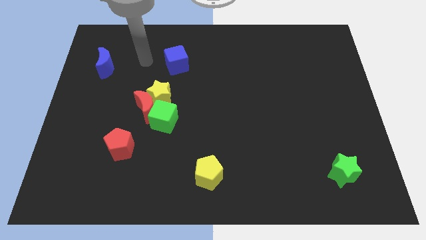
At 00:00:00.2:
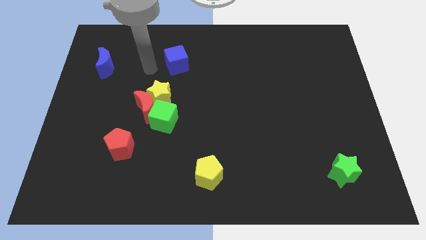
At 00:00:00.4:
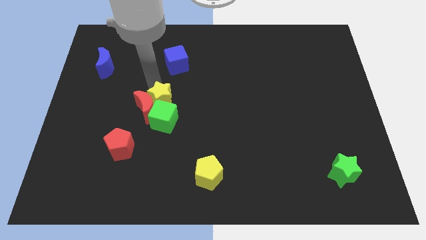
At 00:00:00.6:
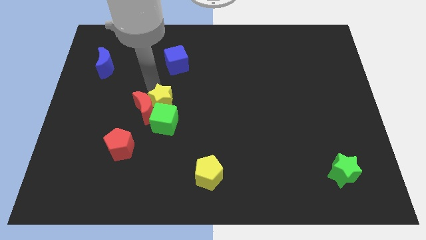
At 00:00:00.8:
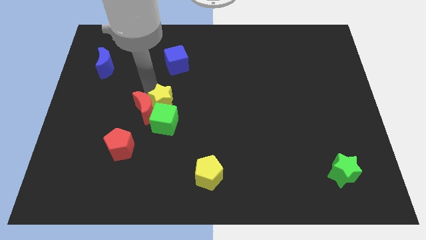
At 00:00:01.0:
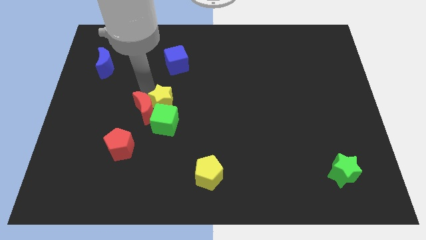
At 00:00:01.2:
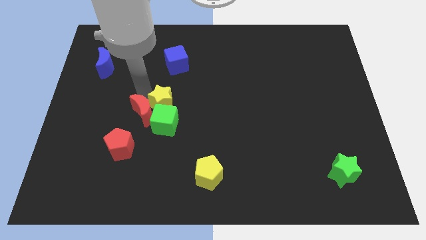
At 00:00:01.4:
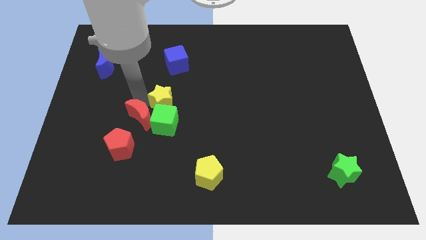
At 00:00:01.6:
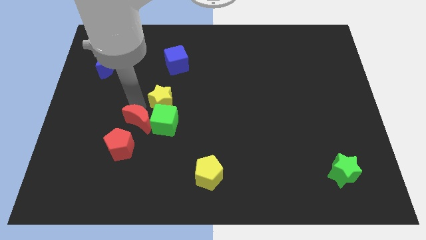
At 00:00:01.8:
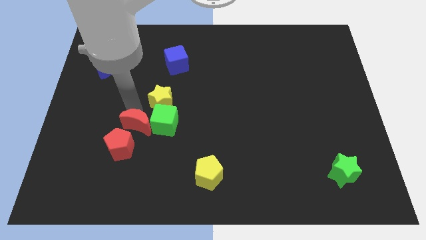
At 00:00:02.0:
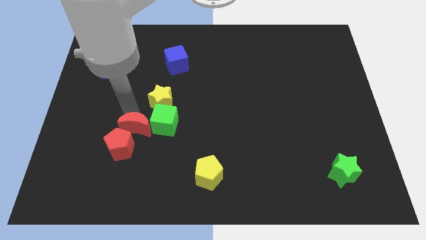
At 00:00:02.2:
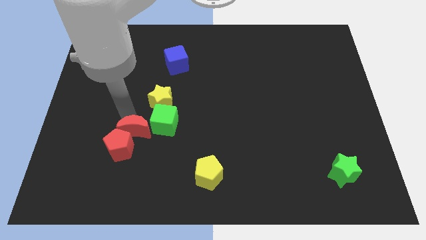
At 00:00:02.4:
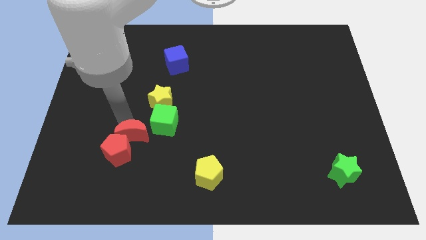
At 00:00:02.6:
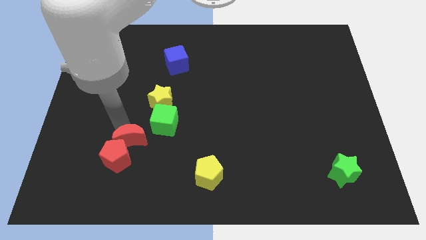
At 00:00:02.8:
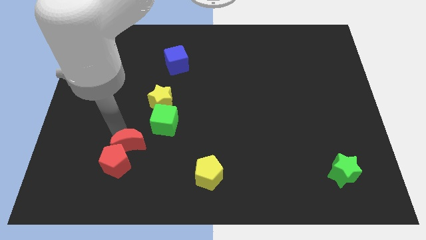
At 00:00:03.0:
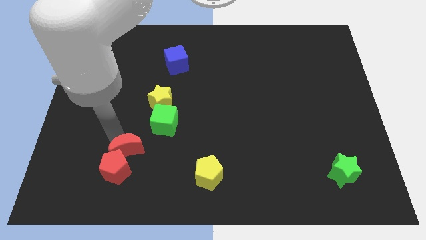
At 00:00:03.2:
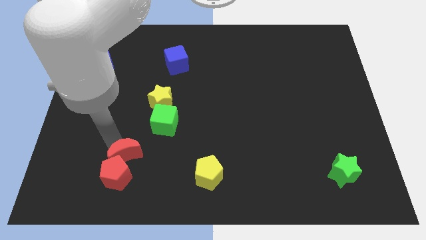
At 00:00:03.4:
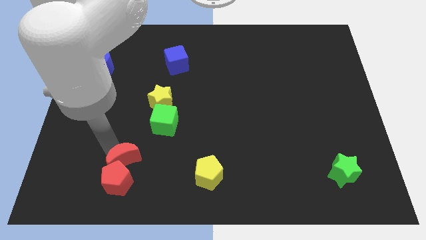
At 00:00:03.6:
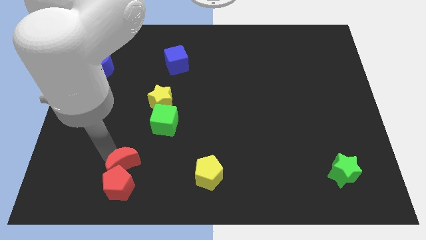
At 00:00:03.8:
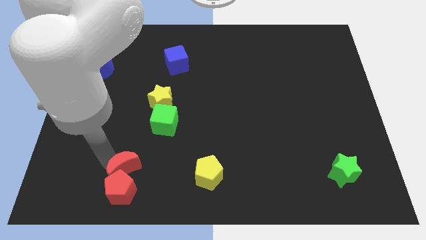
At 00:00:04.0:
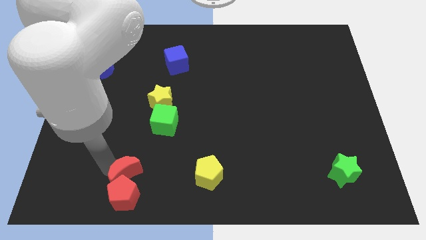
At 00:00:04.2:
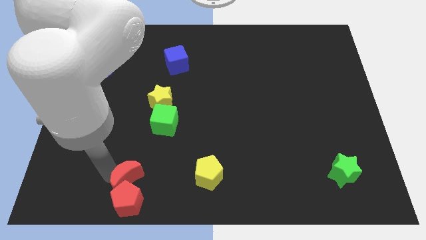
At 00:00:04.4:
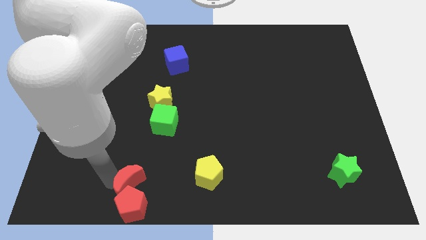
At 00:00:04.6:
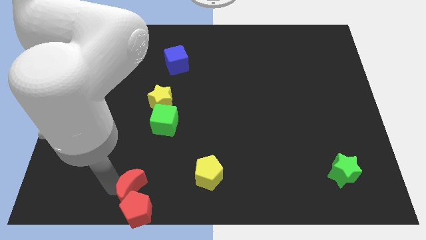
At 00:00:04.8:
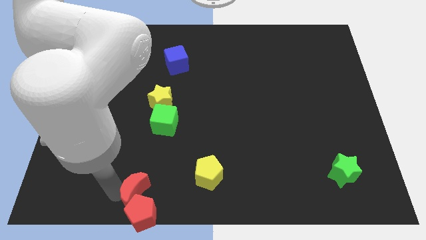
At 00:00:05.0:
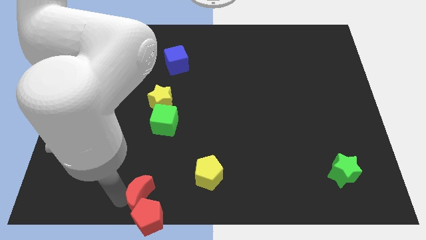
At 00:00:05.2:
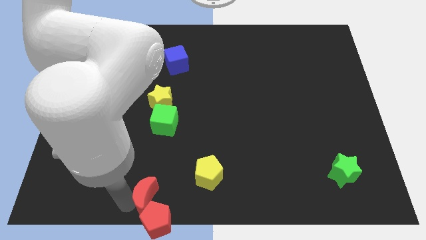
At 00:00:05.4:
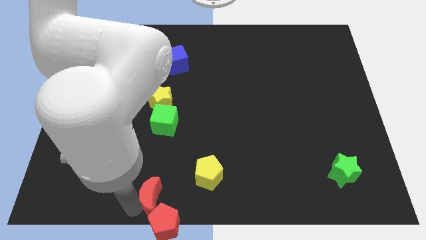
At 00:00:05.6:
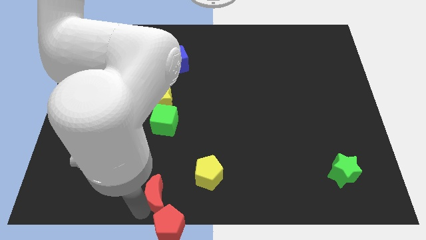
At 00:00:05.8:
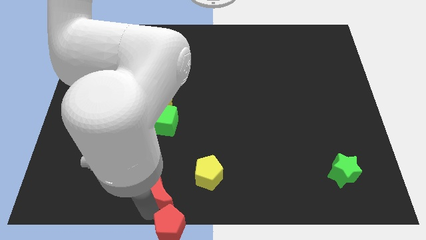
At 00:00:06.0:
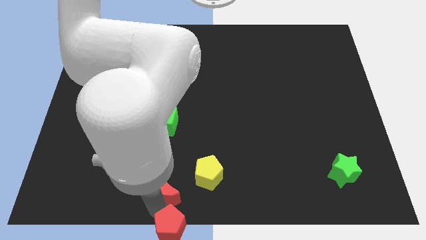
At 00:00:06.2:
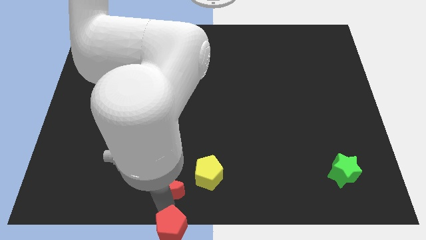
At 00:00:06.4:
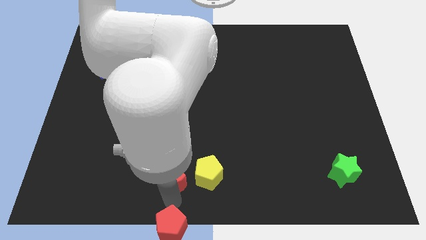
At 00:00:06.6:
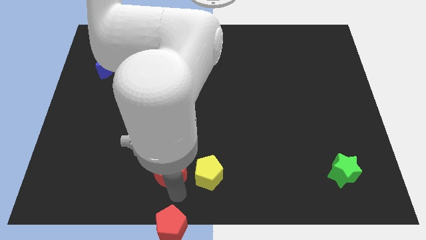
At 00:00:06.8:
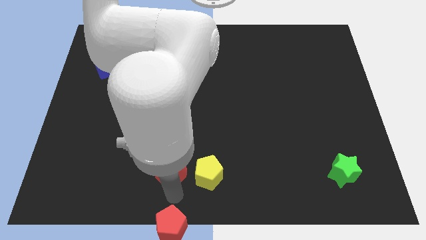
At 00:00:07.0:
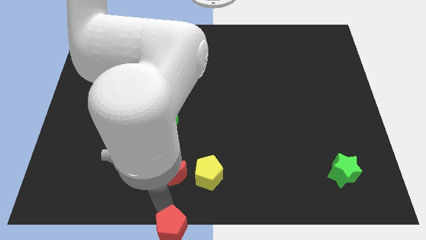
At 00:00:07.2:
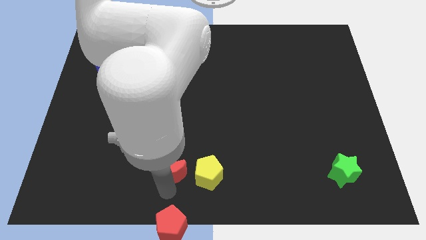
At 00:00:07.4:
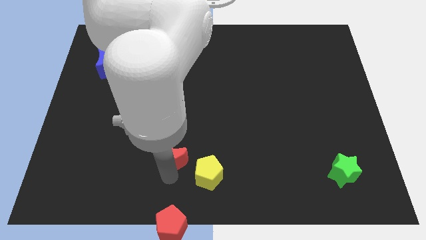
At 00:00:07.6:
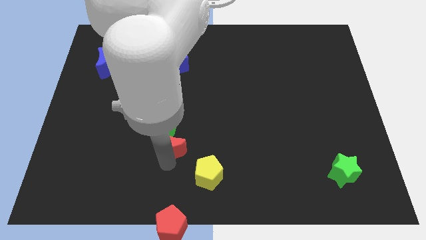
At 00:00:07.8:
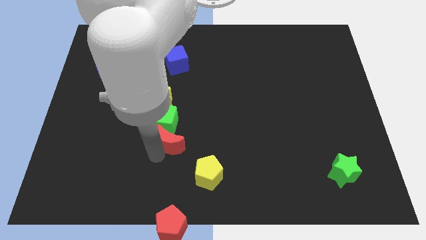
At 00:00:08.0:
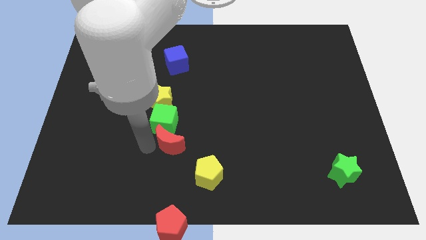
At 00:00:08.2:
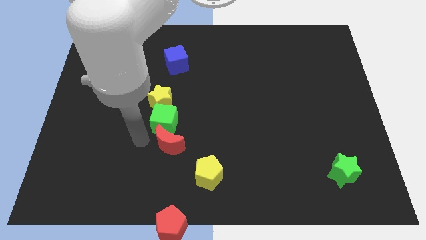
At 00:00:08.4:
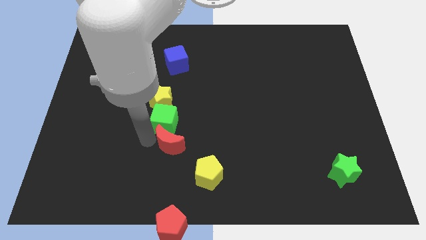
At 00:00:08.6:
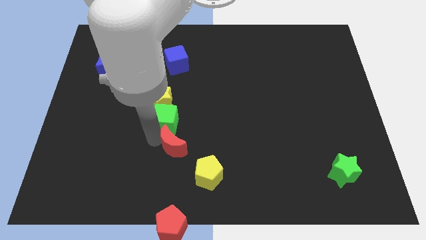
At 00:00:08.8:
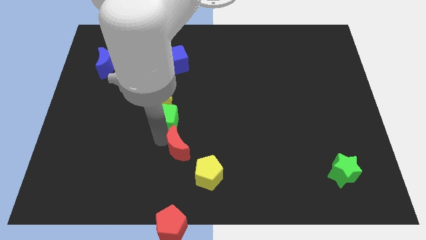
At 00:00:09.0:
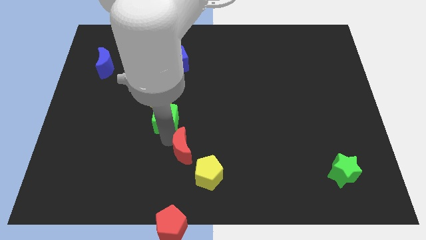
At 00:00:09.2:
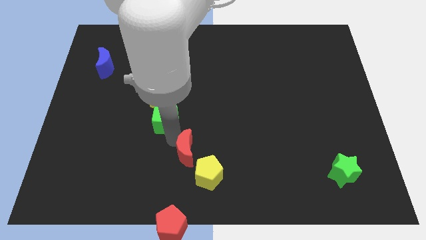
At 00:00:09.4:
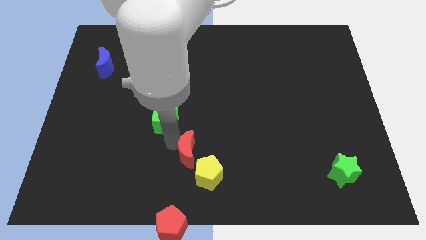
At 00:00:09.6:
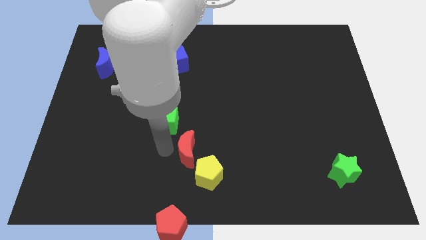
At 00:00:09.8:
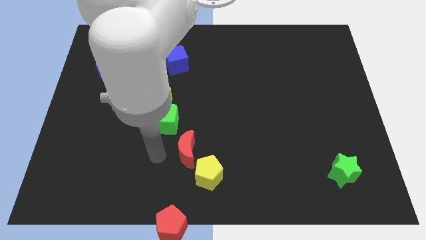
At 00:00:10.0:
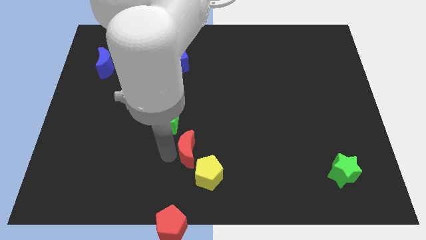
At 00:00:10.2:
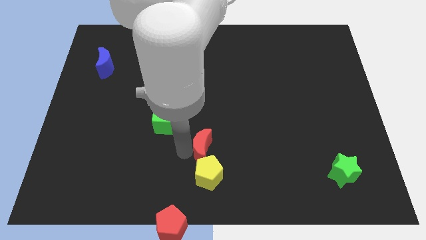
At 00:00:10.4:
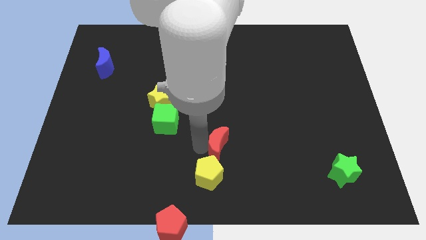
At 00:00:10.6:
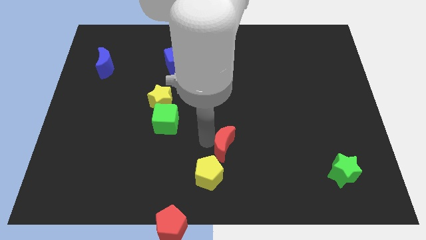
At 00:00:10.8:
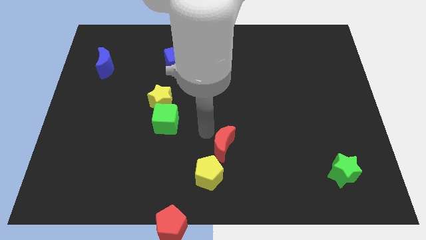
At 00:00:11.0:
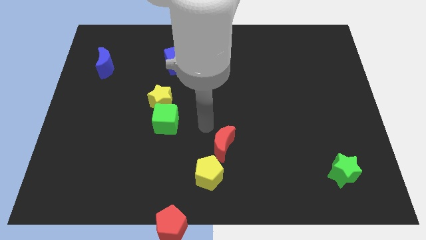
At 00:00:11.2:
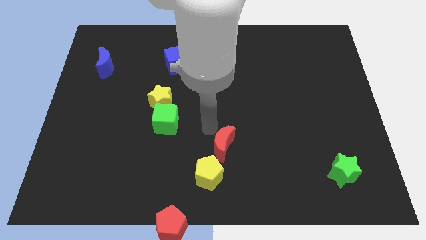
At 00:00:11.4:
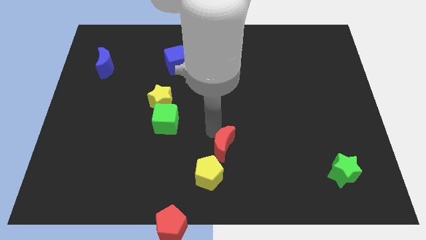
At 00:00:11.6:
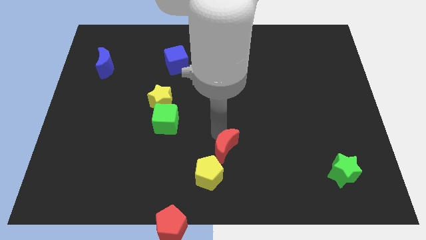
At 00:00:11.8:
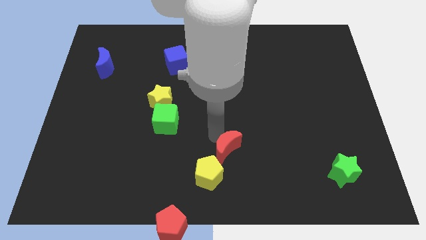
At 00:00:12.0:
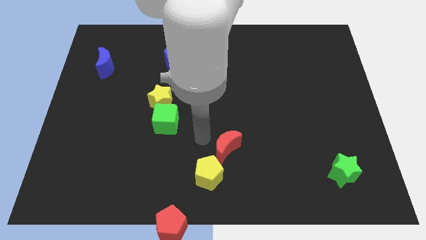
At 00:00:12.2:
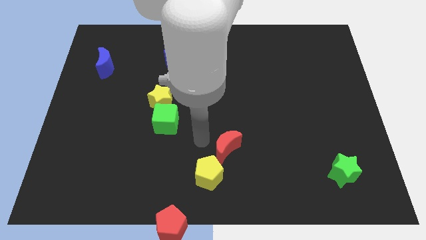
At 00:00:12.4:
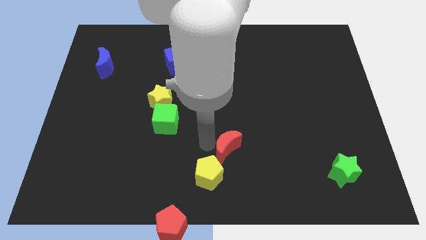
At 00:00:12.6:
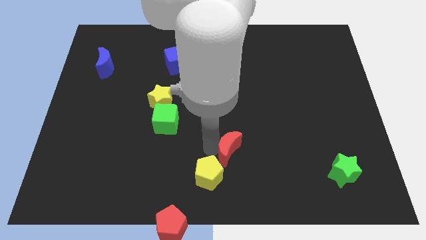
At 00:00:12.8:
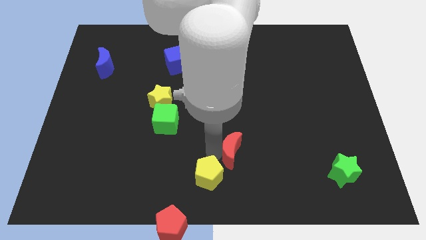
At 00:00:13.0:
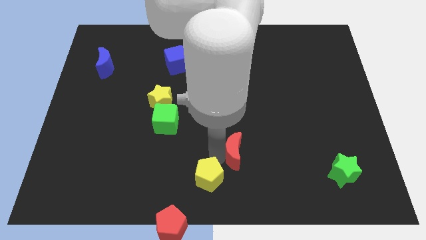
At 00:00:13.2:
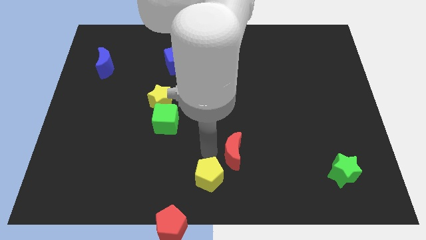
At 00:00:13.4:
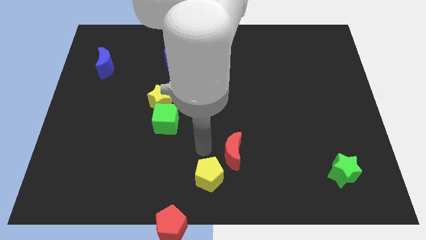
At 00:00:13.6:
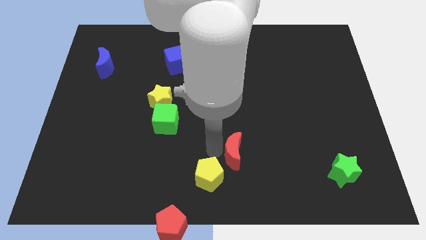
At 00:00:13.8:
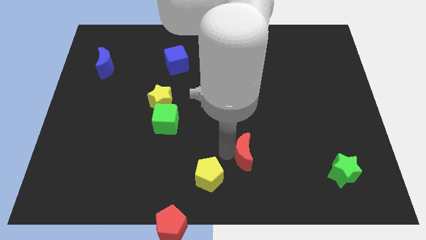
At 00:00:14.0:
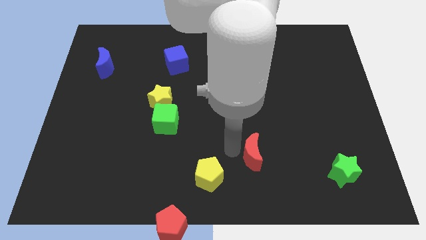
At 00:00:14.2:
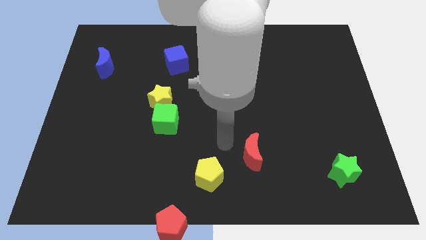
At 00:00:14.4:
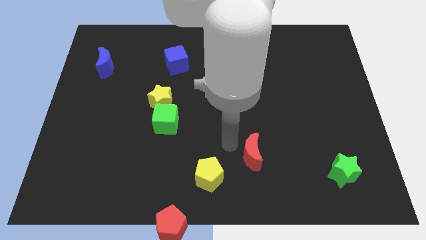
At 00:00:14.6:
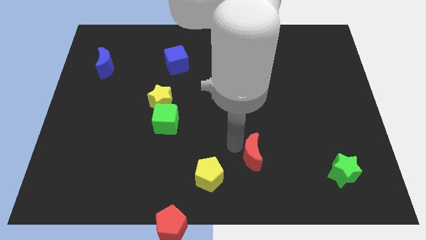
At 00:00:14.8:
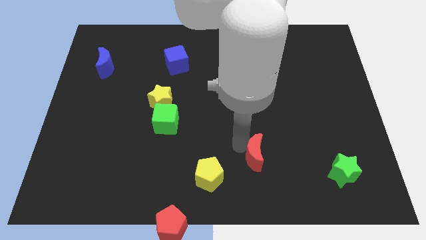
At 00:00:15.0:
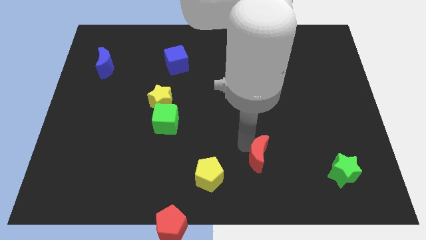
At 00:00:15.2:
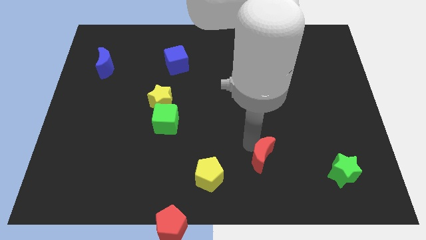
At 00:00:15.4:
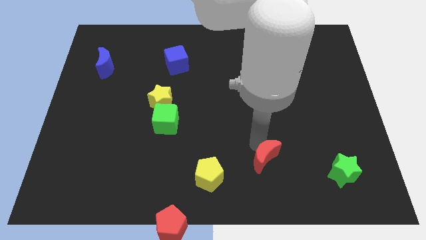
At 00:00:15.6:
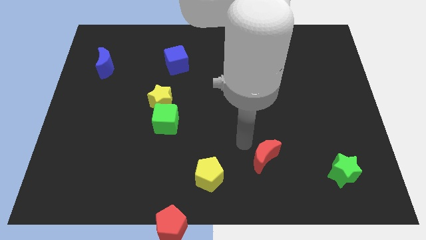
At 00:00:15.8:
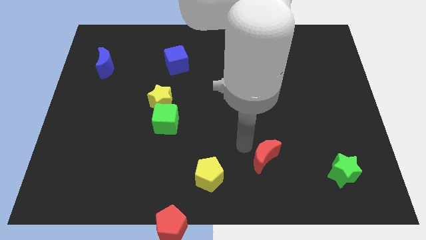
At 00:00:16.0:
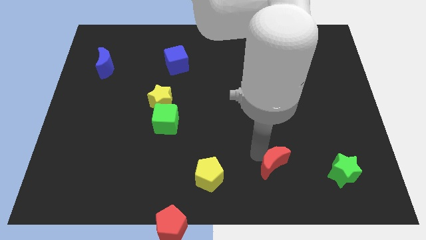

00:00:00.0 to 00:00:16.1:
put the red moon to the left of the green star
